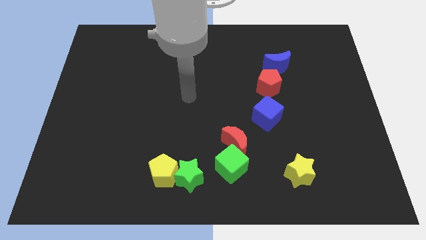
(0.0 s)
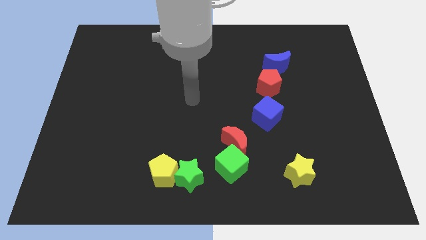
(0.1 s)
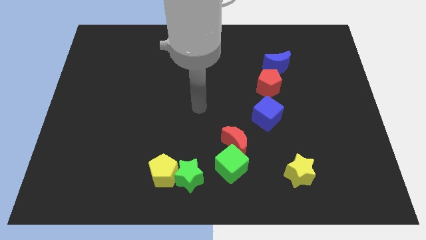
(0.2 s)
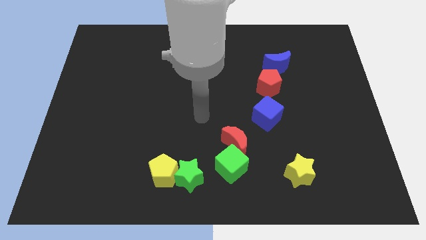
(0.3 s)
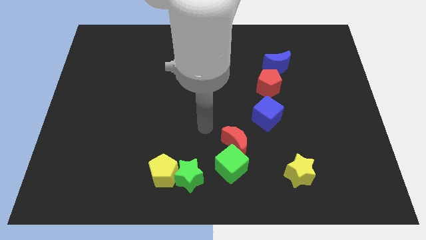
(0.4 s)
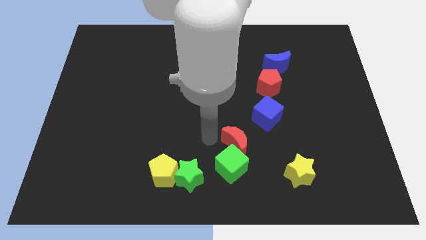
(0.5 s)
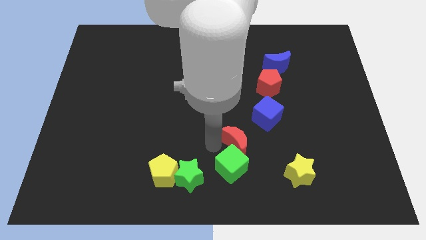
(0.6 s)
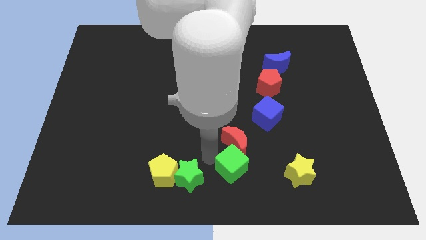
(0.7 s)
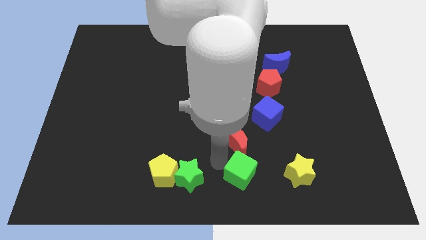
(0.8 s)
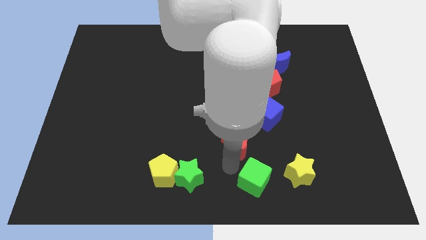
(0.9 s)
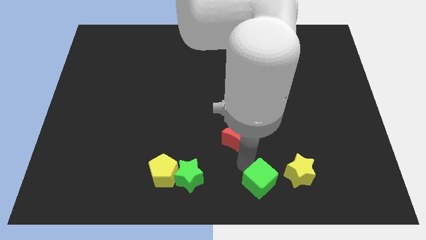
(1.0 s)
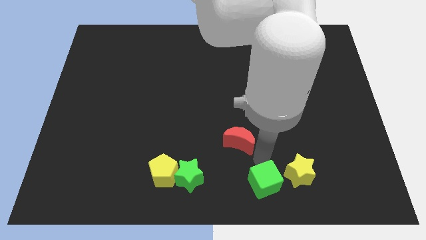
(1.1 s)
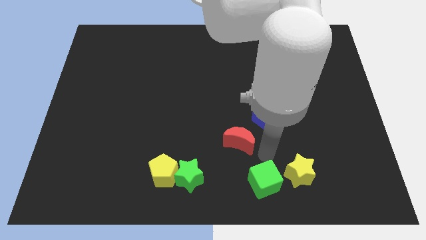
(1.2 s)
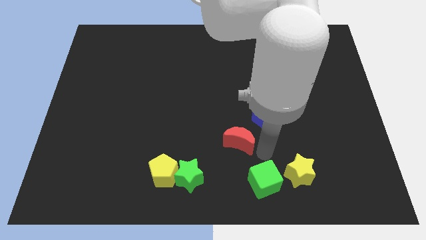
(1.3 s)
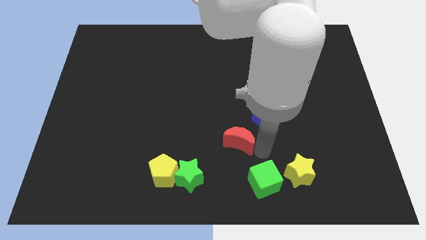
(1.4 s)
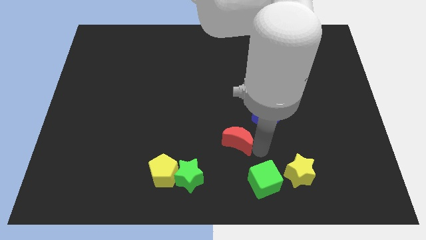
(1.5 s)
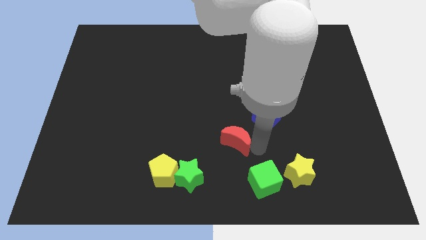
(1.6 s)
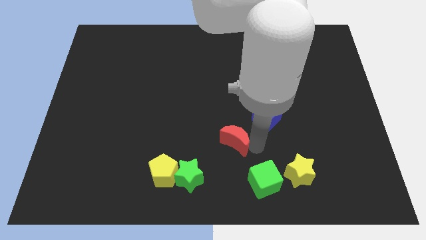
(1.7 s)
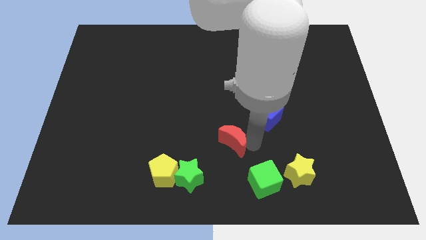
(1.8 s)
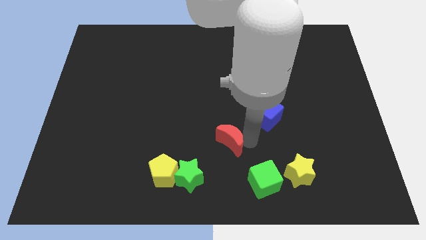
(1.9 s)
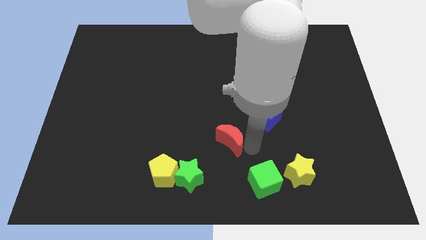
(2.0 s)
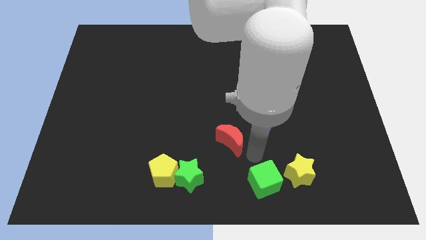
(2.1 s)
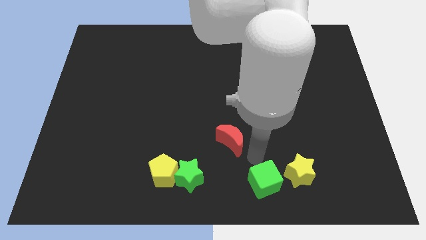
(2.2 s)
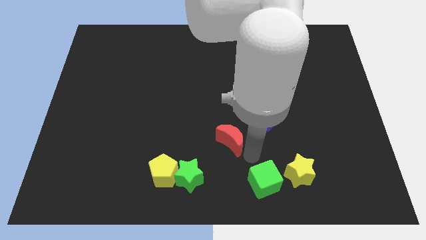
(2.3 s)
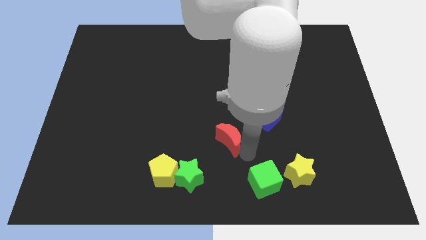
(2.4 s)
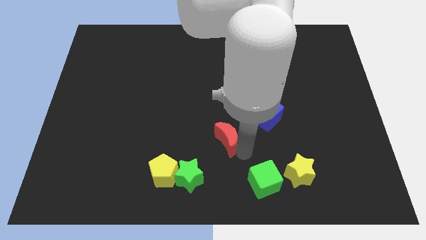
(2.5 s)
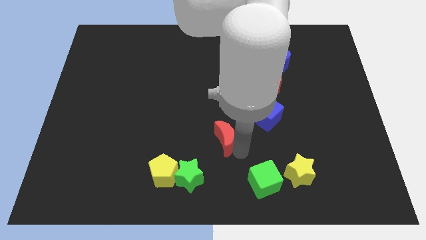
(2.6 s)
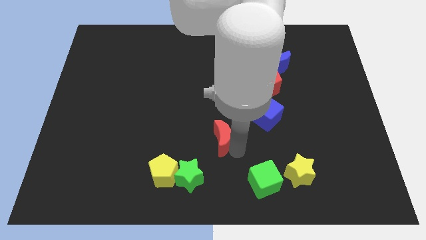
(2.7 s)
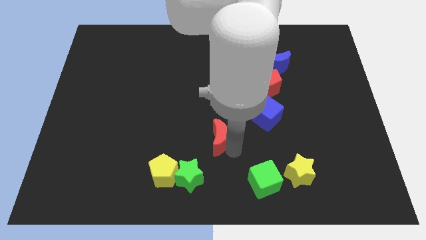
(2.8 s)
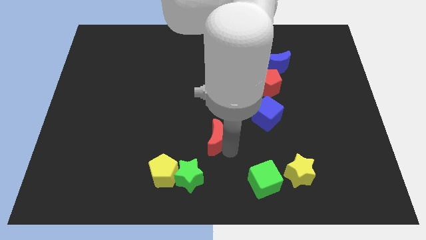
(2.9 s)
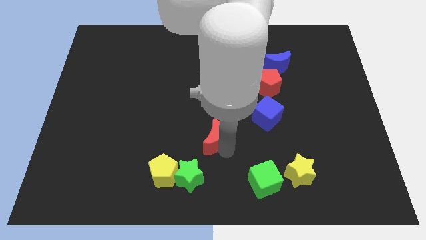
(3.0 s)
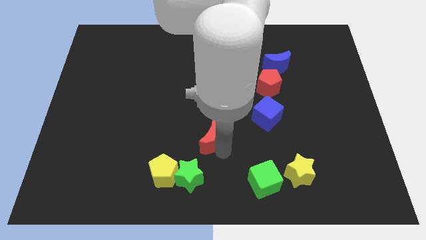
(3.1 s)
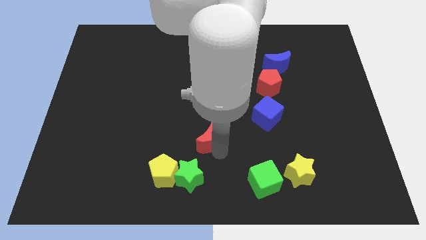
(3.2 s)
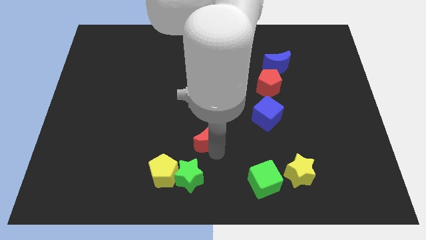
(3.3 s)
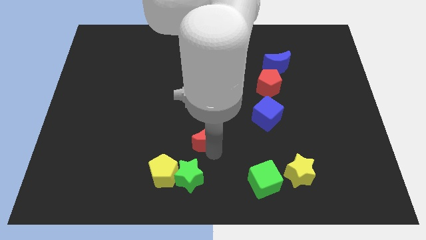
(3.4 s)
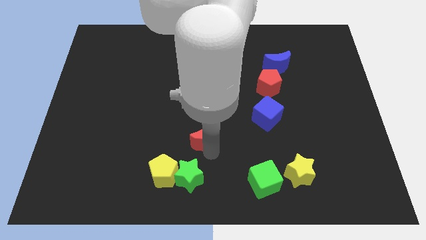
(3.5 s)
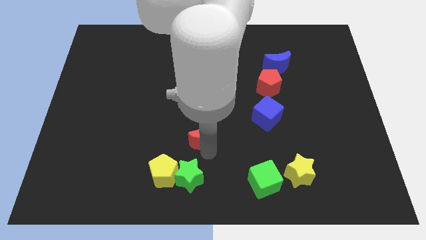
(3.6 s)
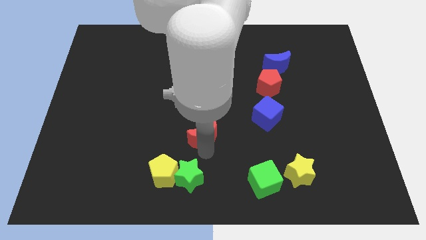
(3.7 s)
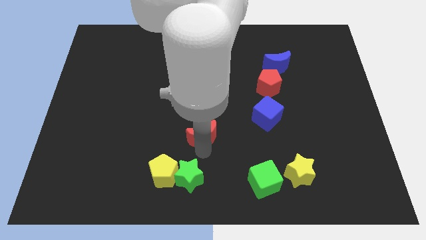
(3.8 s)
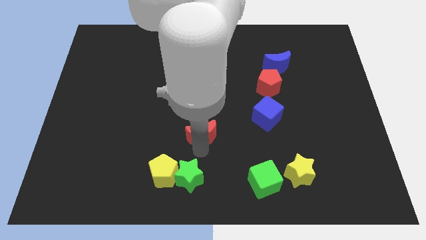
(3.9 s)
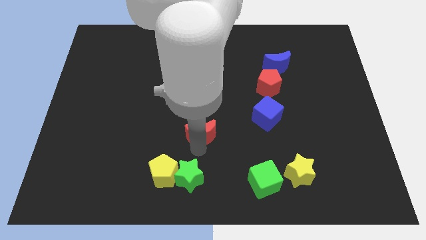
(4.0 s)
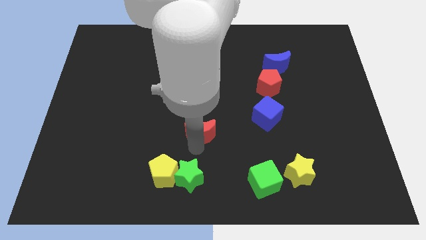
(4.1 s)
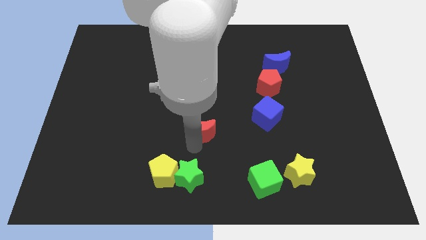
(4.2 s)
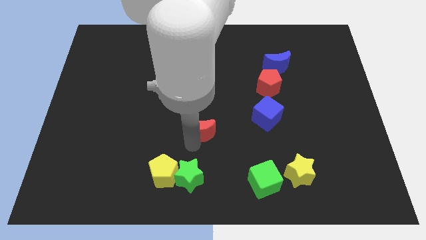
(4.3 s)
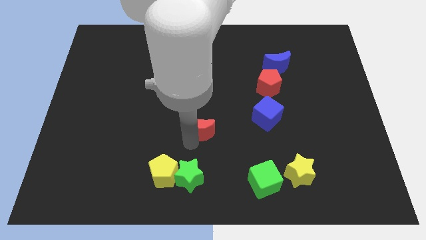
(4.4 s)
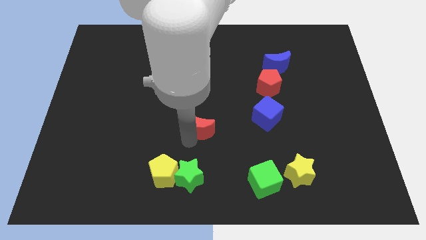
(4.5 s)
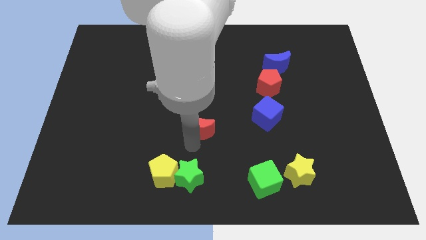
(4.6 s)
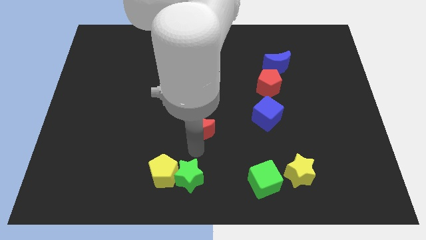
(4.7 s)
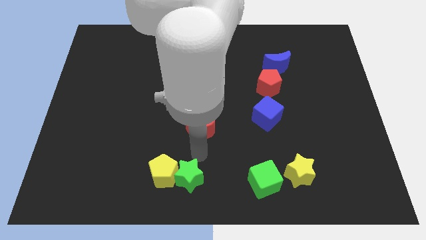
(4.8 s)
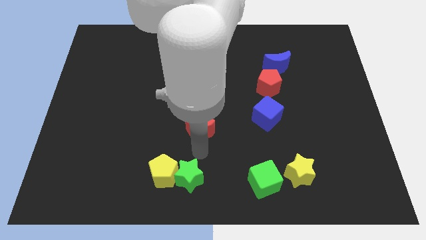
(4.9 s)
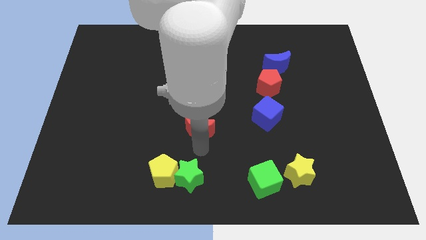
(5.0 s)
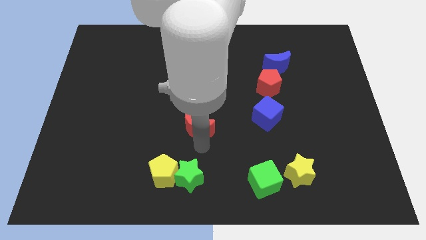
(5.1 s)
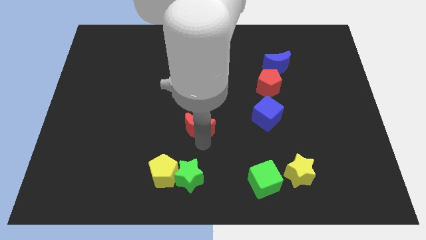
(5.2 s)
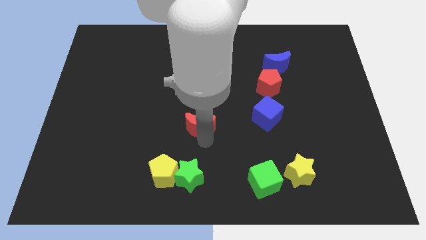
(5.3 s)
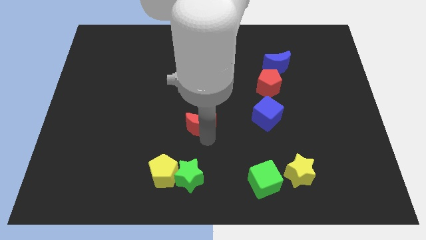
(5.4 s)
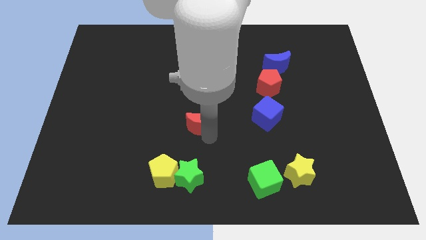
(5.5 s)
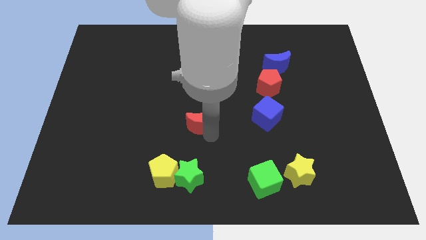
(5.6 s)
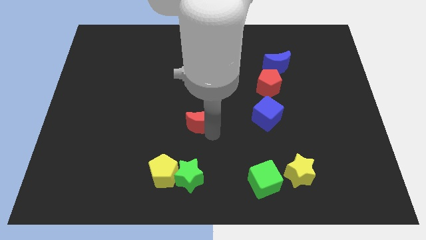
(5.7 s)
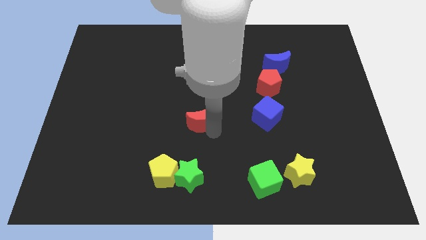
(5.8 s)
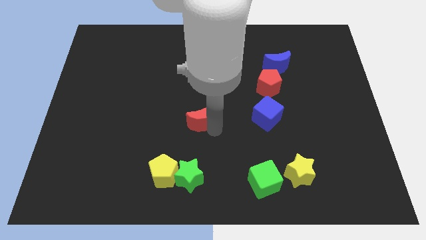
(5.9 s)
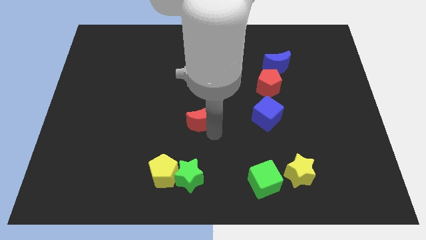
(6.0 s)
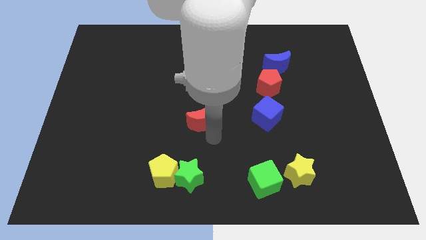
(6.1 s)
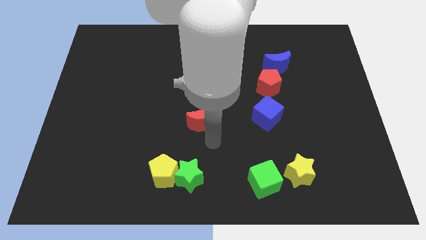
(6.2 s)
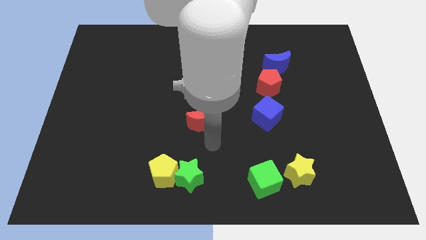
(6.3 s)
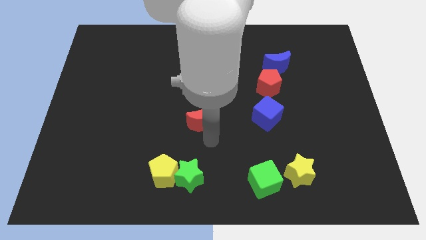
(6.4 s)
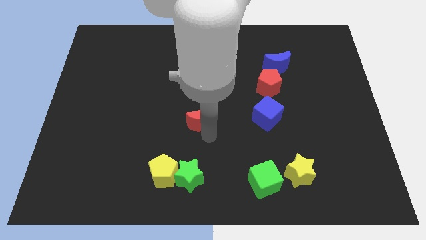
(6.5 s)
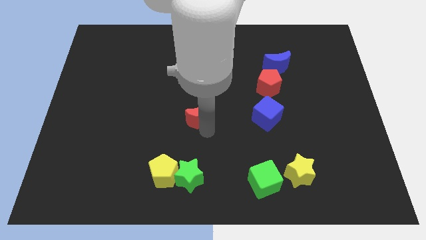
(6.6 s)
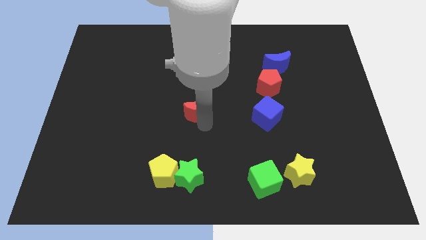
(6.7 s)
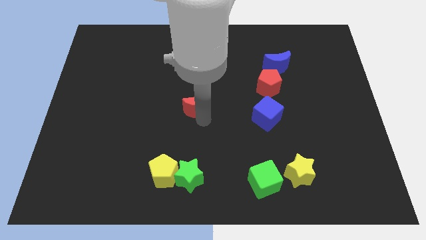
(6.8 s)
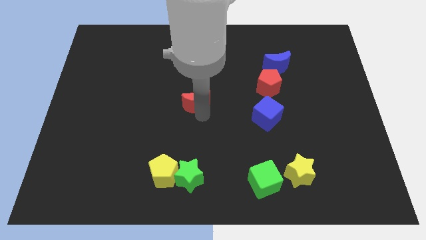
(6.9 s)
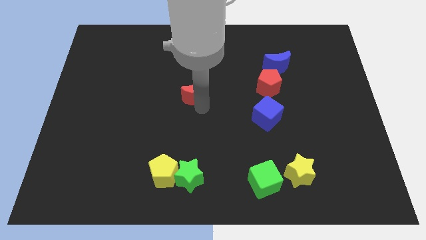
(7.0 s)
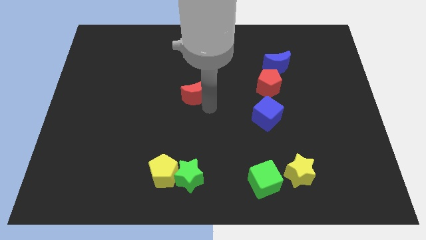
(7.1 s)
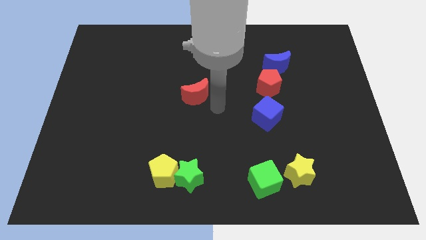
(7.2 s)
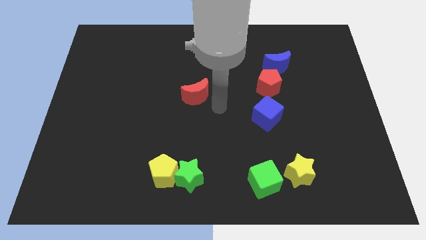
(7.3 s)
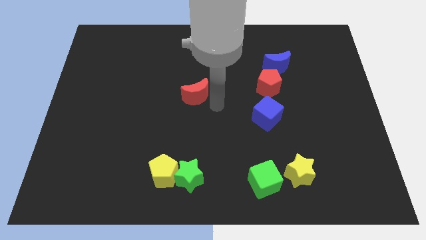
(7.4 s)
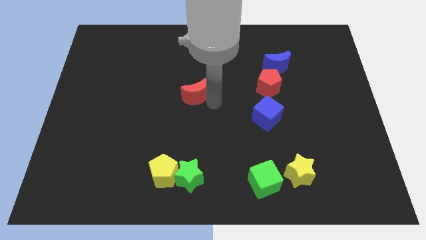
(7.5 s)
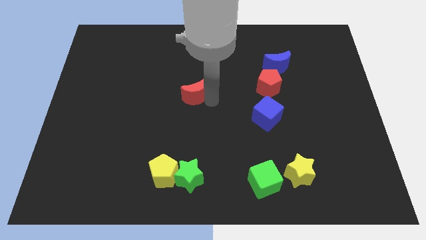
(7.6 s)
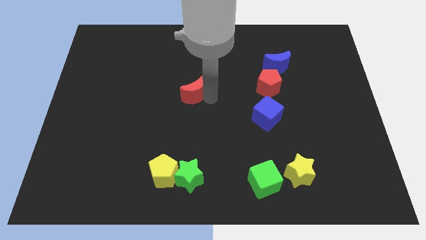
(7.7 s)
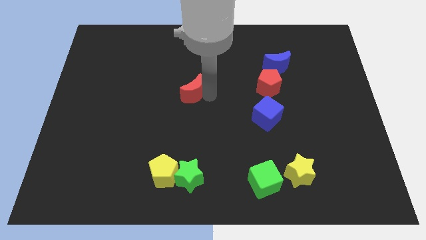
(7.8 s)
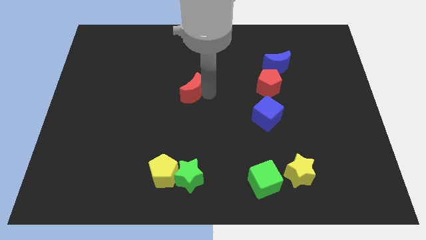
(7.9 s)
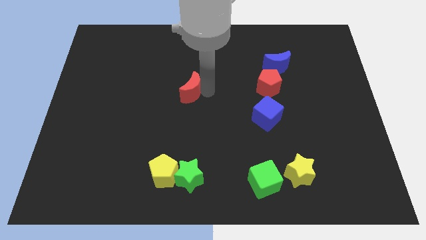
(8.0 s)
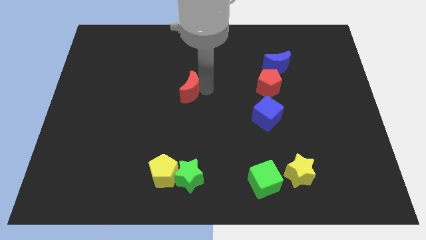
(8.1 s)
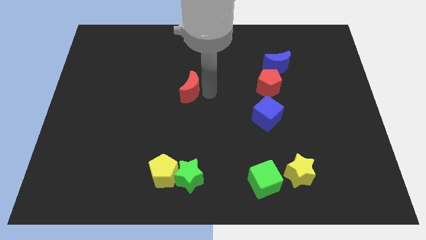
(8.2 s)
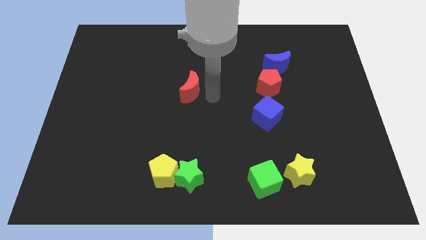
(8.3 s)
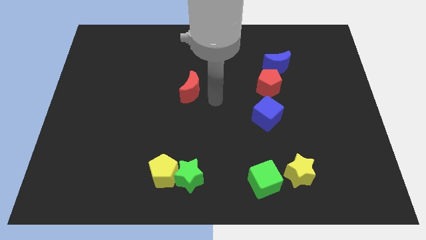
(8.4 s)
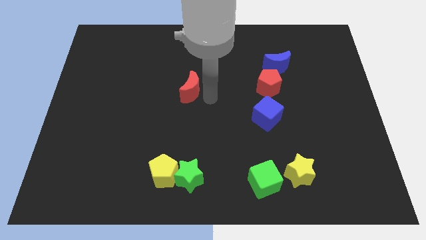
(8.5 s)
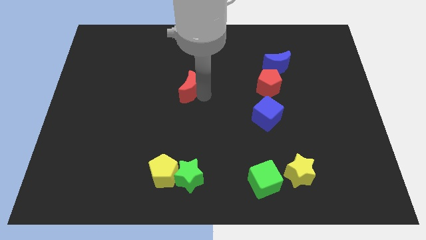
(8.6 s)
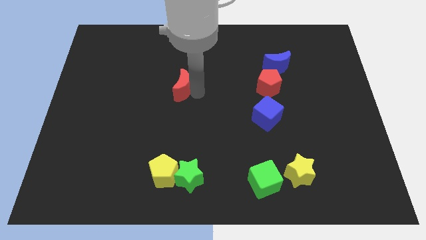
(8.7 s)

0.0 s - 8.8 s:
slide the red moon diagonally up and to the left
